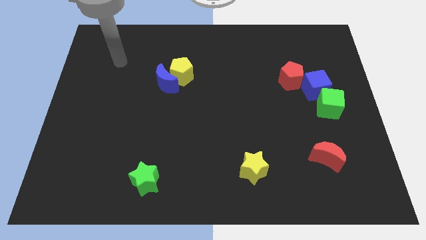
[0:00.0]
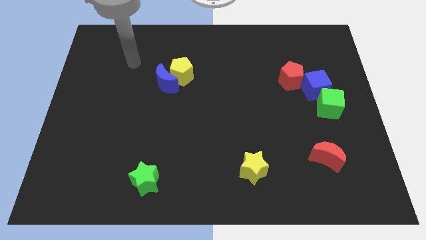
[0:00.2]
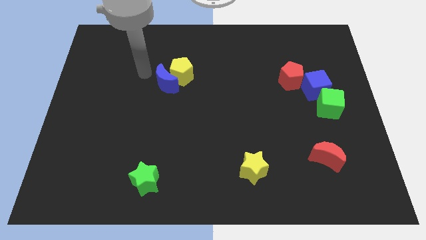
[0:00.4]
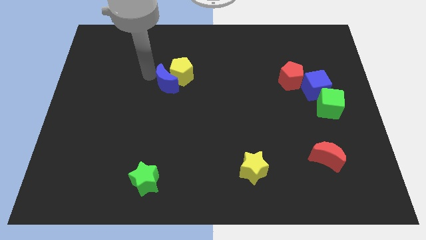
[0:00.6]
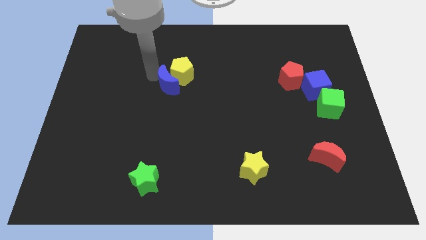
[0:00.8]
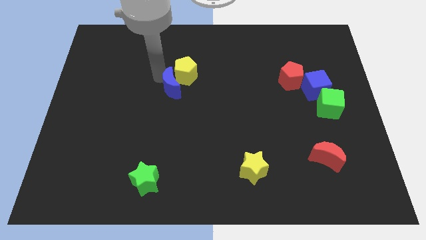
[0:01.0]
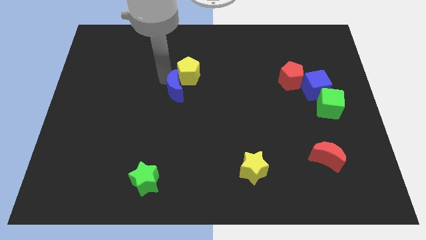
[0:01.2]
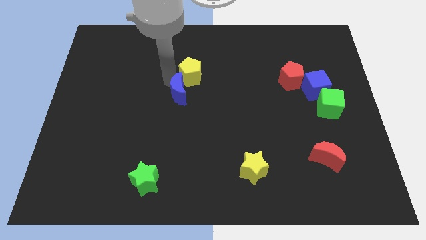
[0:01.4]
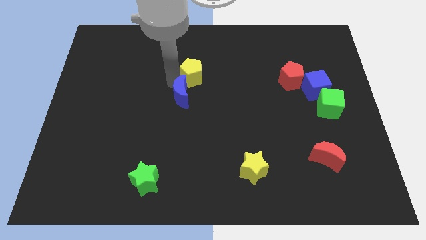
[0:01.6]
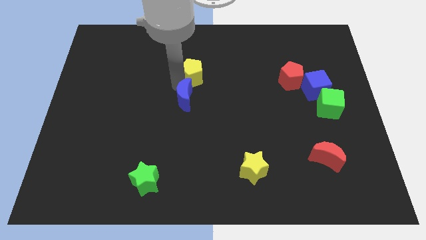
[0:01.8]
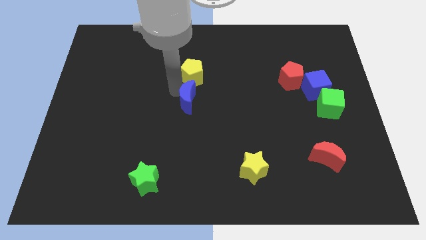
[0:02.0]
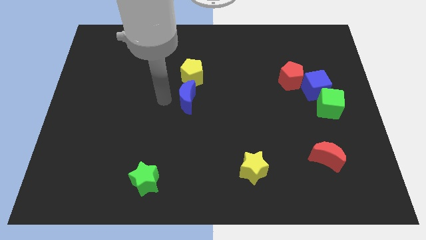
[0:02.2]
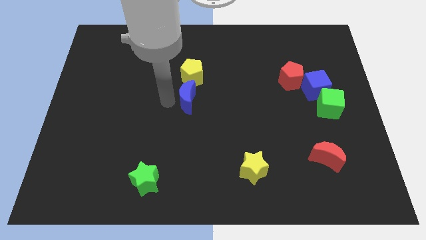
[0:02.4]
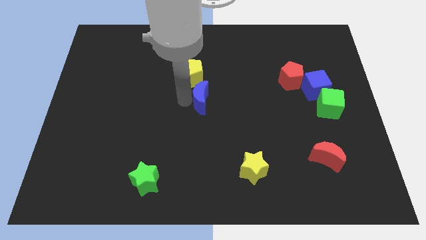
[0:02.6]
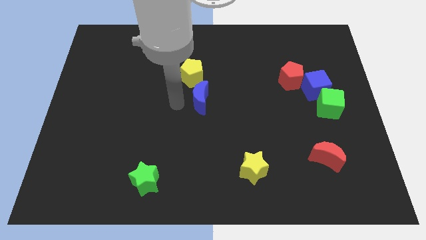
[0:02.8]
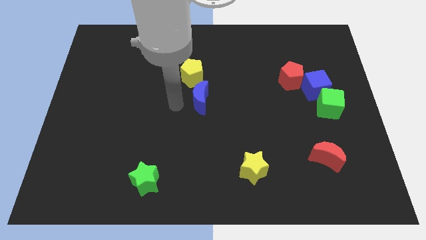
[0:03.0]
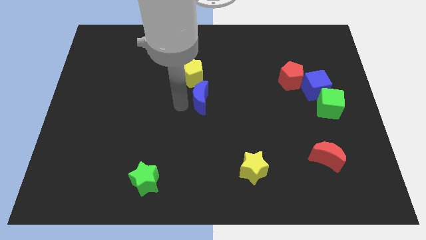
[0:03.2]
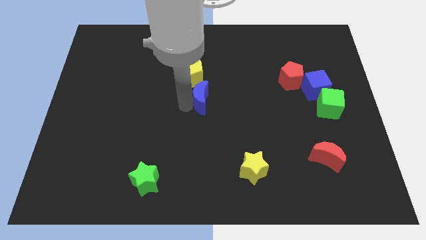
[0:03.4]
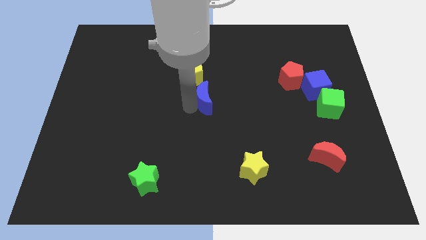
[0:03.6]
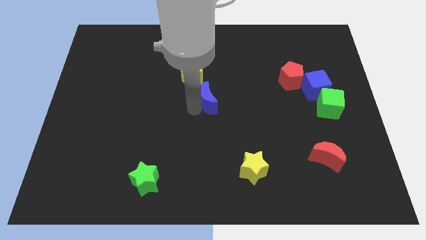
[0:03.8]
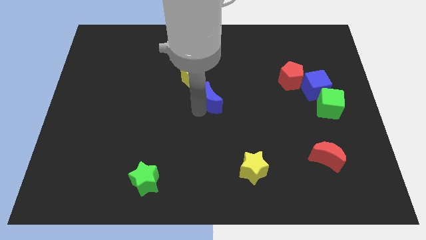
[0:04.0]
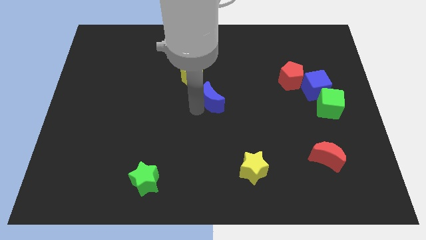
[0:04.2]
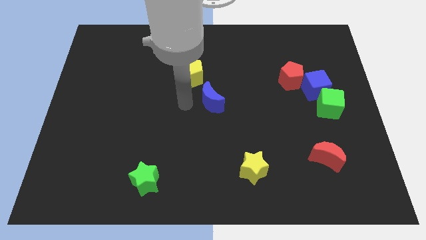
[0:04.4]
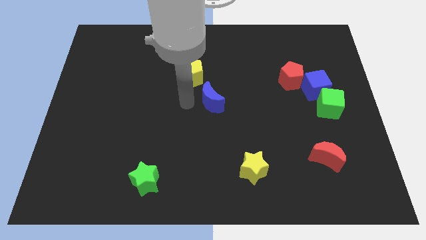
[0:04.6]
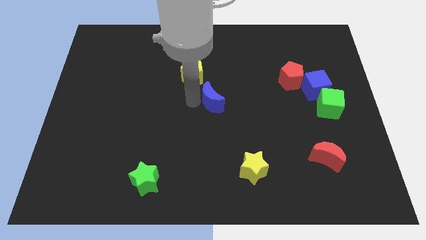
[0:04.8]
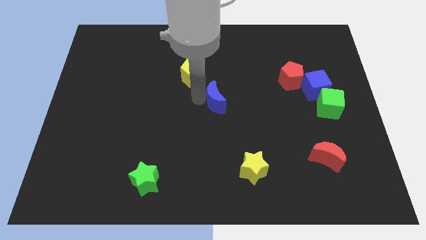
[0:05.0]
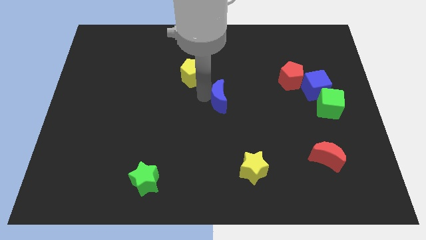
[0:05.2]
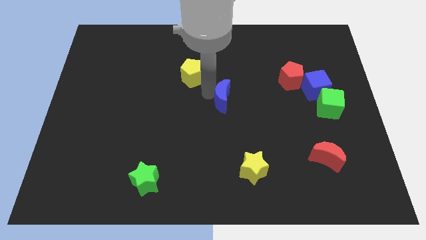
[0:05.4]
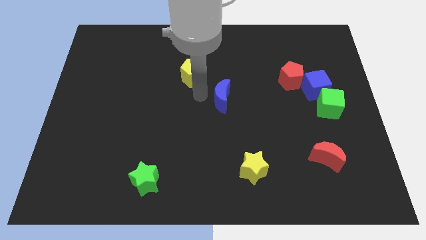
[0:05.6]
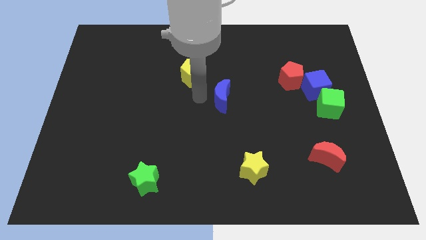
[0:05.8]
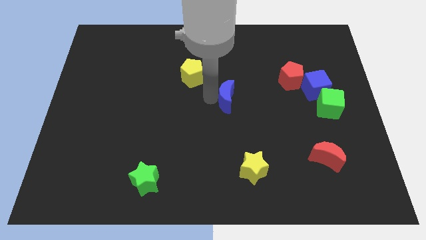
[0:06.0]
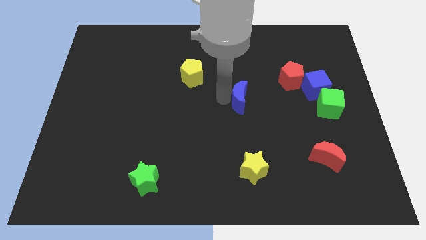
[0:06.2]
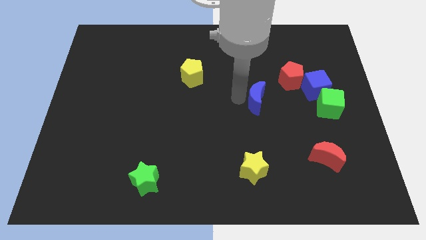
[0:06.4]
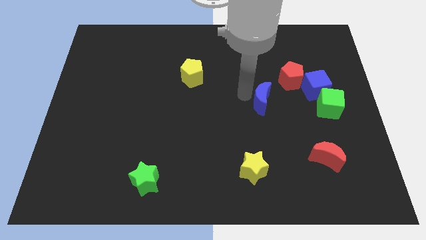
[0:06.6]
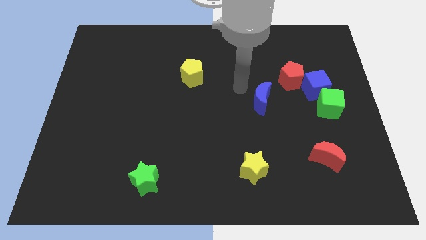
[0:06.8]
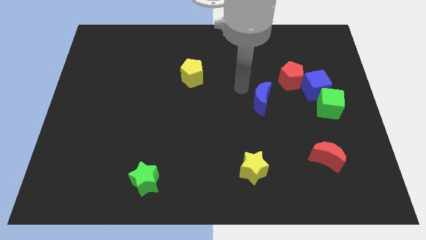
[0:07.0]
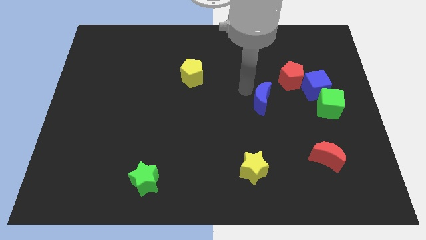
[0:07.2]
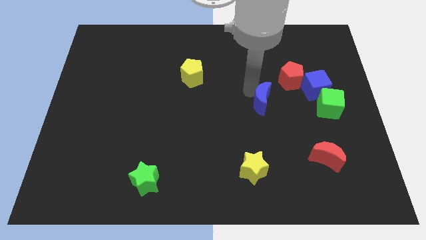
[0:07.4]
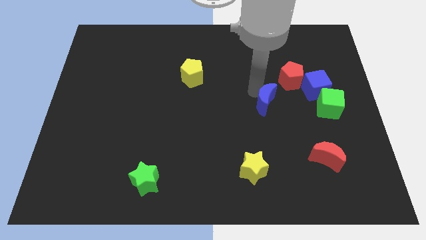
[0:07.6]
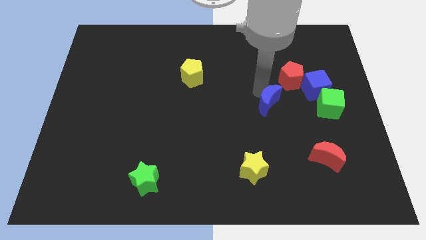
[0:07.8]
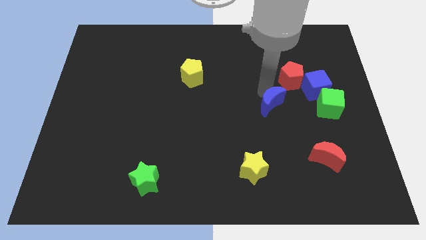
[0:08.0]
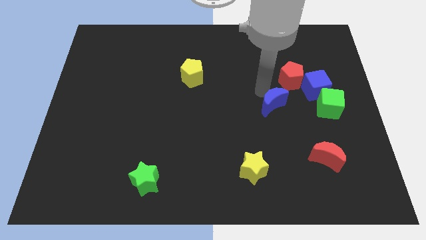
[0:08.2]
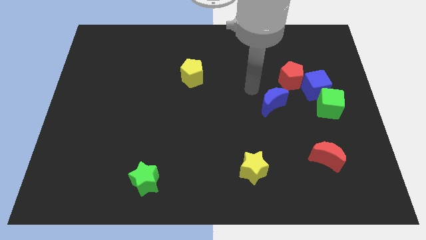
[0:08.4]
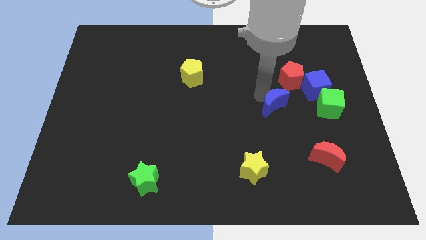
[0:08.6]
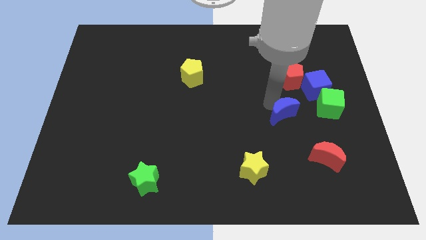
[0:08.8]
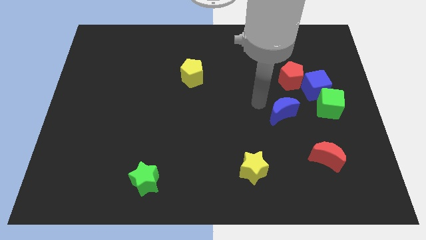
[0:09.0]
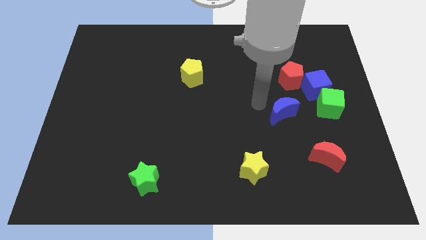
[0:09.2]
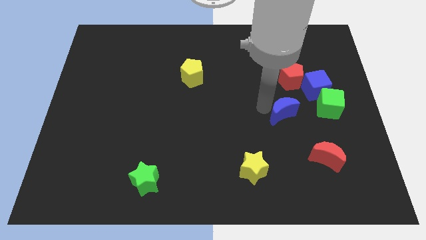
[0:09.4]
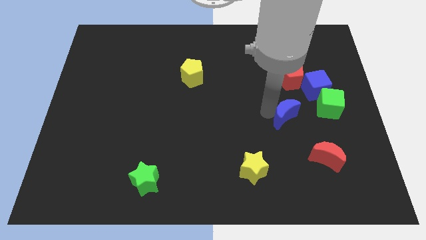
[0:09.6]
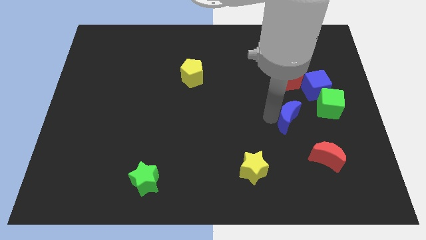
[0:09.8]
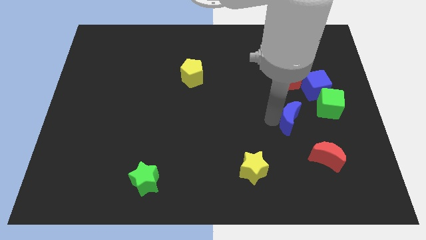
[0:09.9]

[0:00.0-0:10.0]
push the blue moon to the bottom left side of the green cube

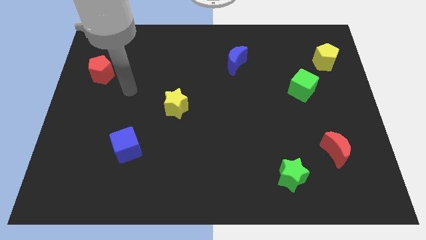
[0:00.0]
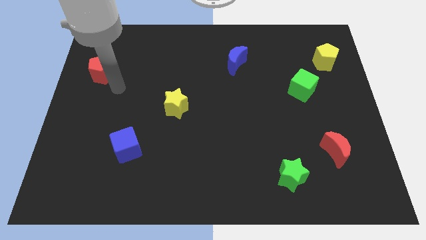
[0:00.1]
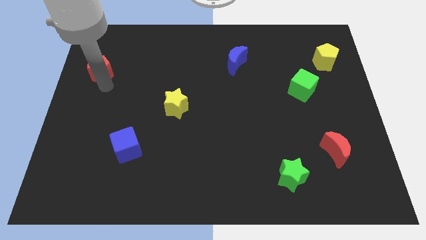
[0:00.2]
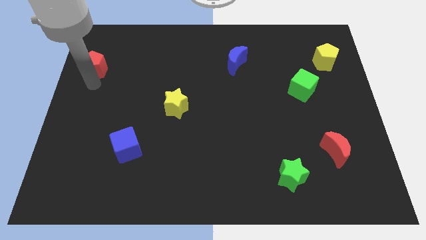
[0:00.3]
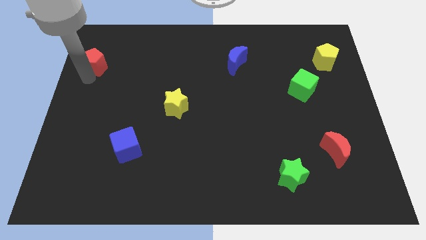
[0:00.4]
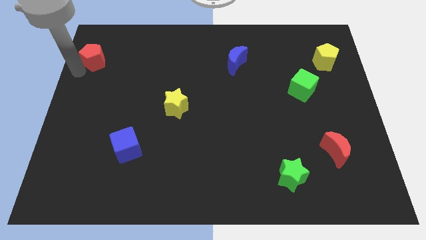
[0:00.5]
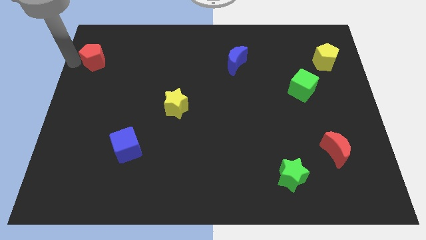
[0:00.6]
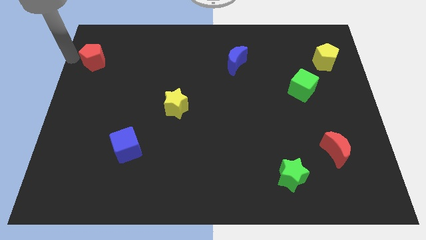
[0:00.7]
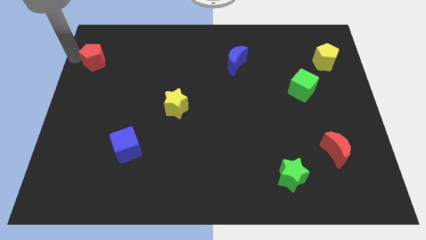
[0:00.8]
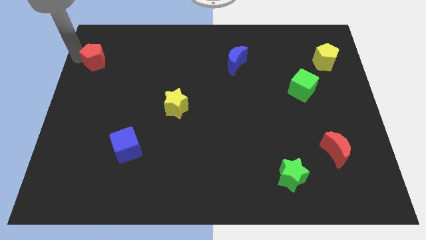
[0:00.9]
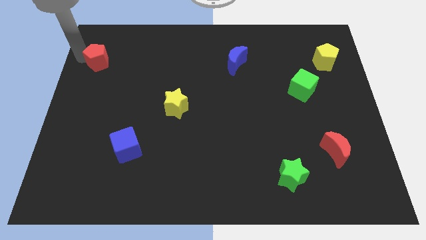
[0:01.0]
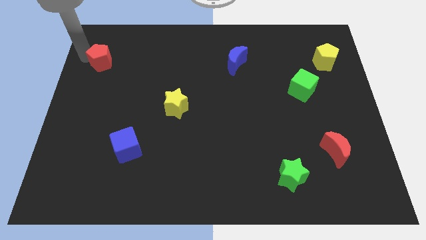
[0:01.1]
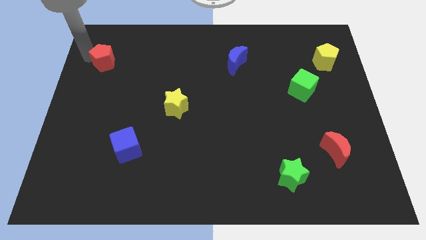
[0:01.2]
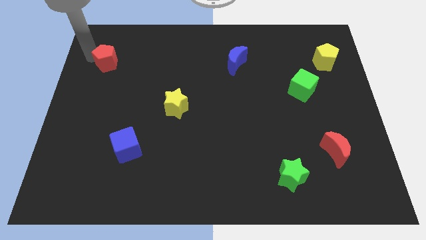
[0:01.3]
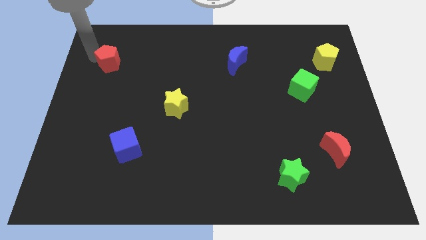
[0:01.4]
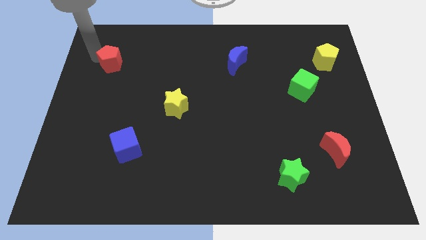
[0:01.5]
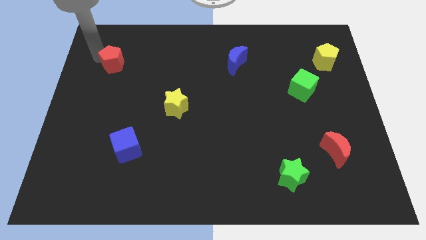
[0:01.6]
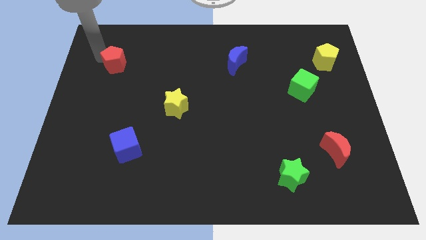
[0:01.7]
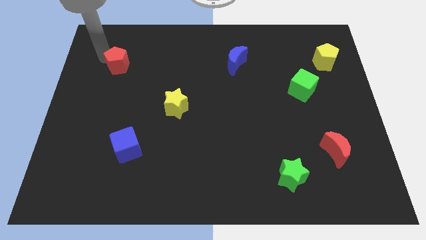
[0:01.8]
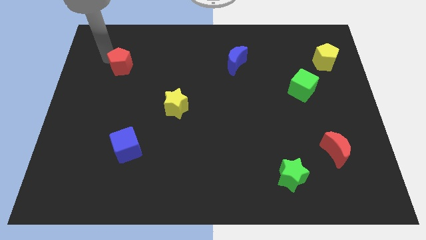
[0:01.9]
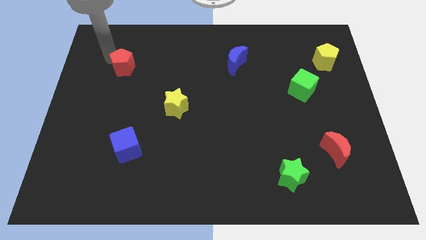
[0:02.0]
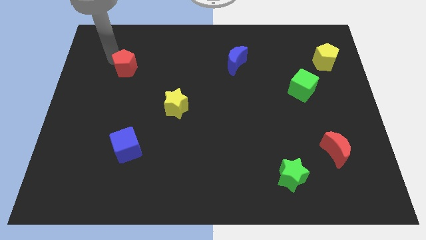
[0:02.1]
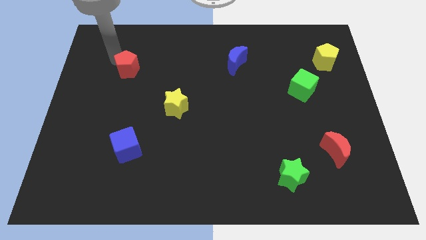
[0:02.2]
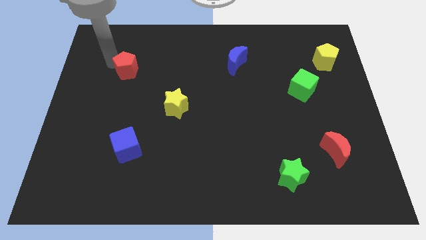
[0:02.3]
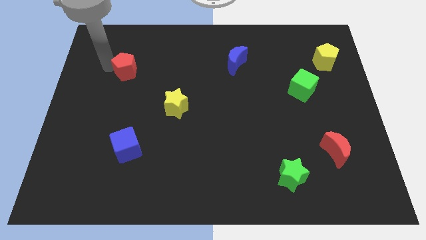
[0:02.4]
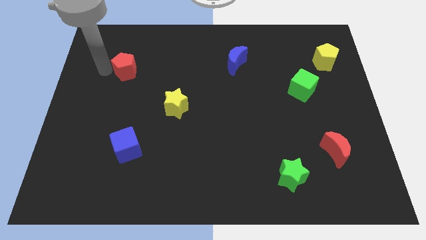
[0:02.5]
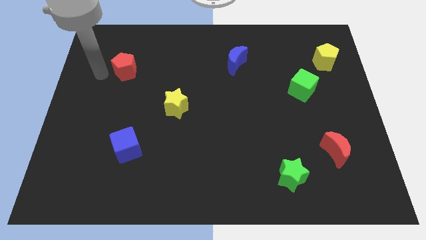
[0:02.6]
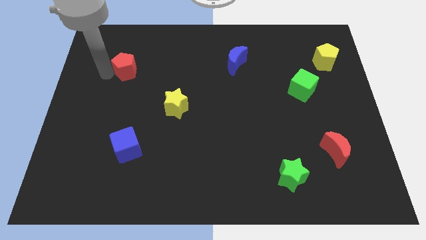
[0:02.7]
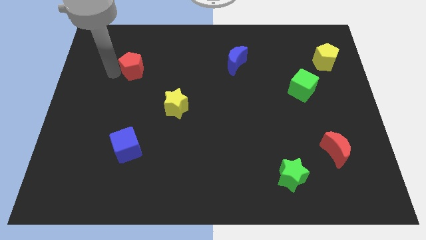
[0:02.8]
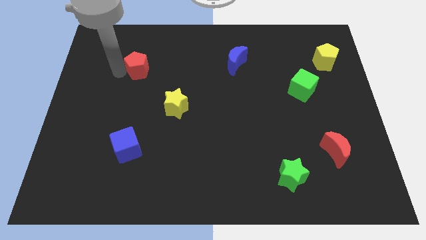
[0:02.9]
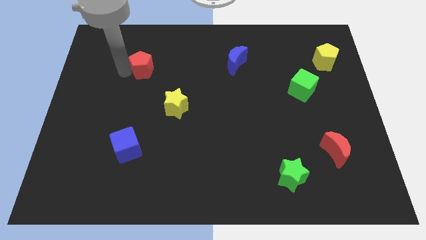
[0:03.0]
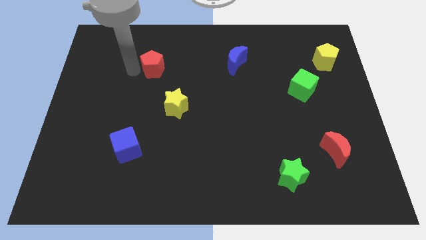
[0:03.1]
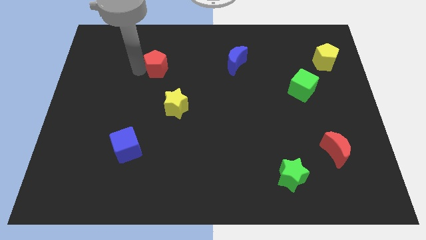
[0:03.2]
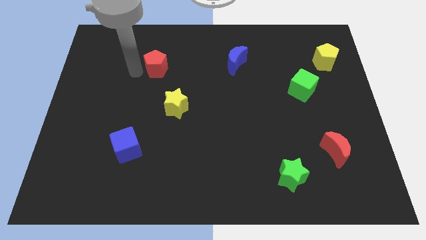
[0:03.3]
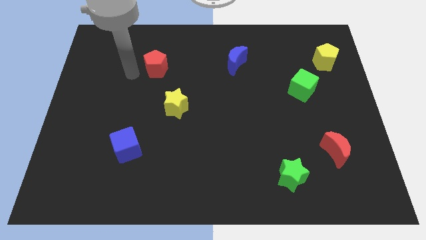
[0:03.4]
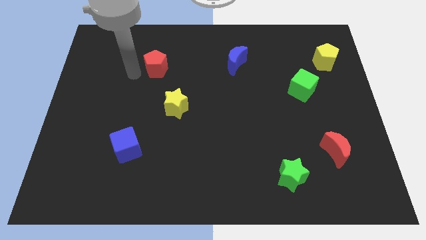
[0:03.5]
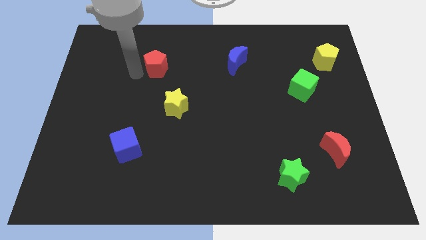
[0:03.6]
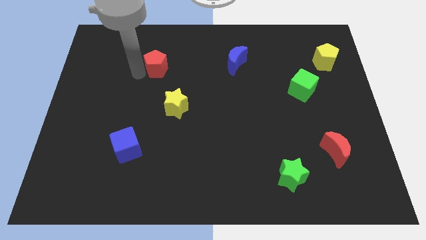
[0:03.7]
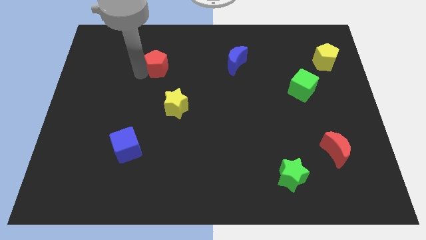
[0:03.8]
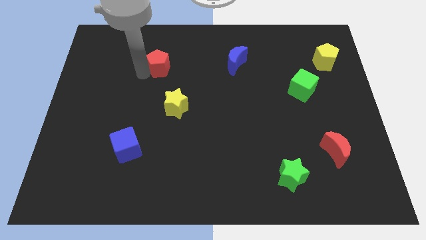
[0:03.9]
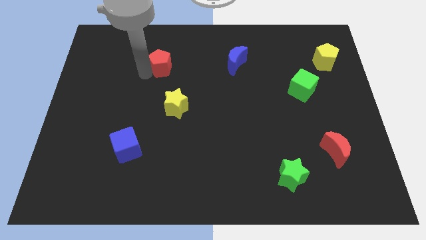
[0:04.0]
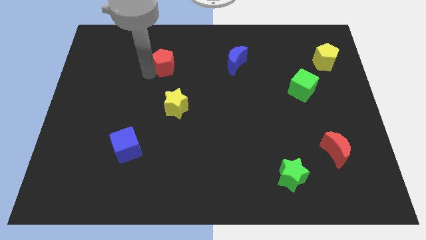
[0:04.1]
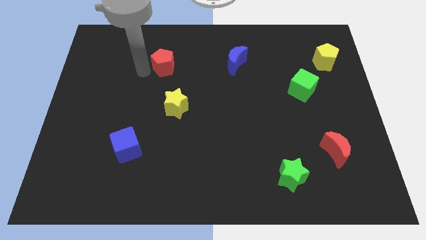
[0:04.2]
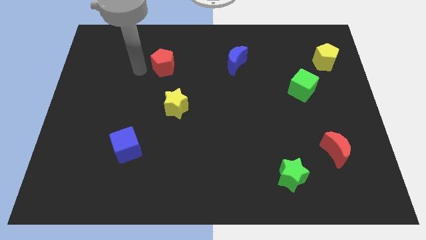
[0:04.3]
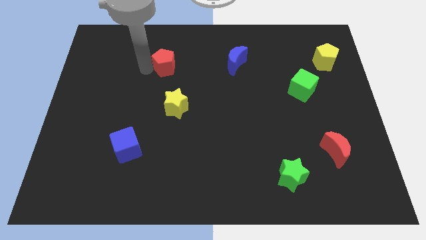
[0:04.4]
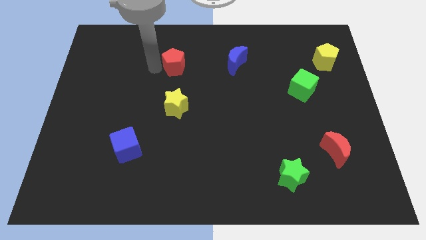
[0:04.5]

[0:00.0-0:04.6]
push the red pentagon to the left side of the blue moon
